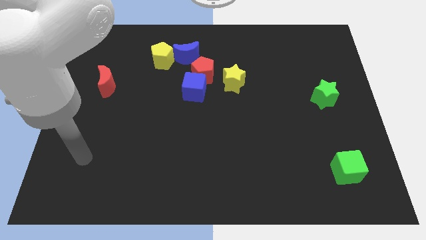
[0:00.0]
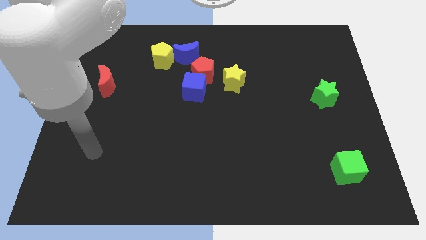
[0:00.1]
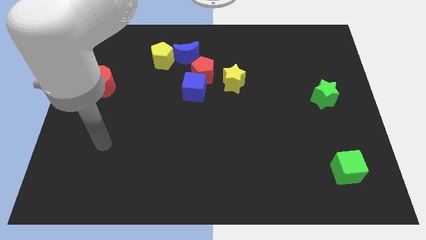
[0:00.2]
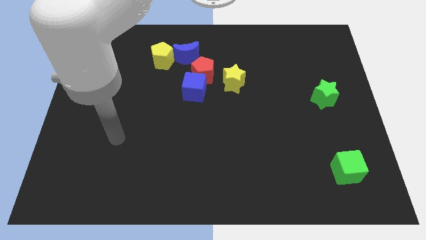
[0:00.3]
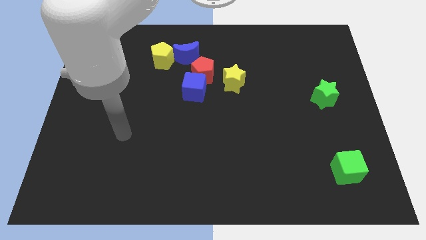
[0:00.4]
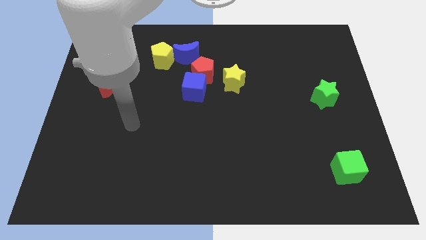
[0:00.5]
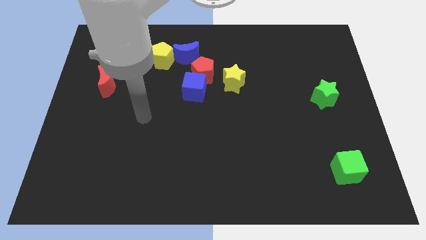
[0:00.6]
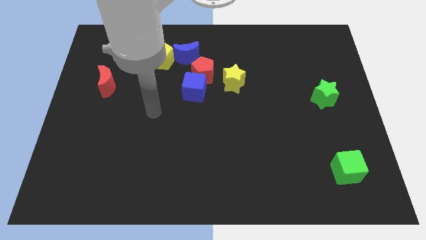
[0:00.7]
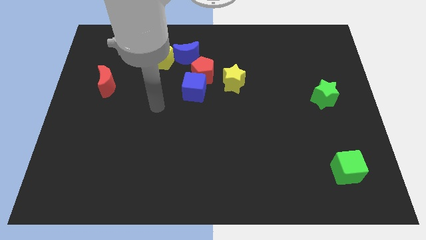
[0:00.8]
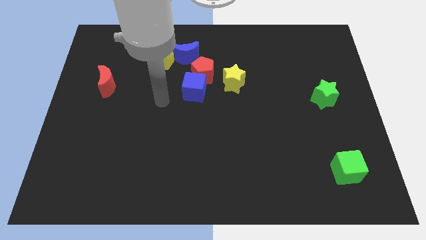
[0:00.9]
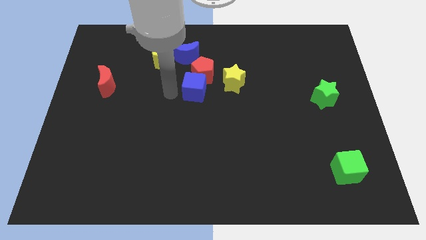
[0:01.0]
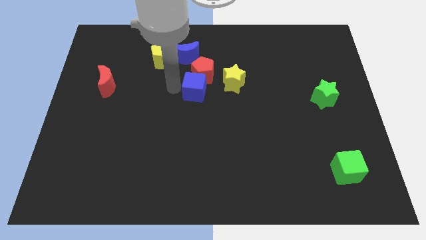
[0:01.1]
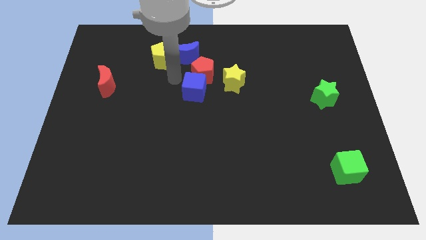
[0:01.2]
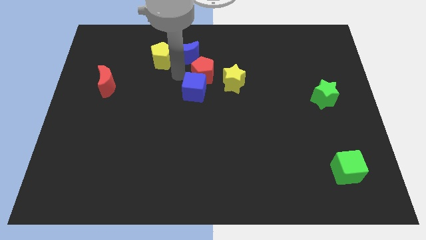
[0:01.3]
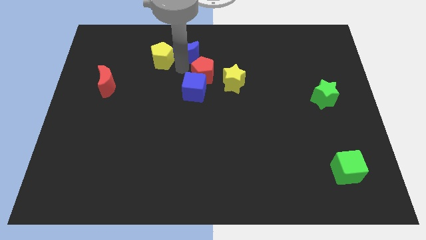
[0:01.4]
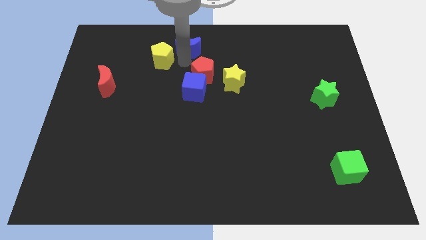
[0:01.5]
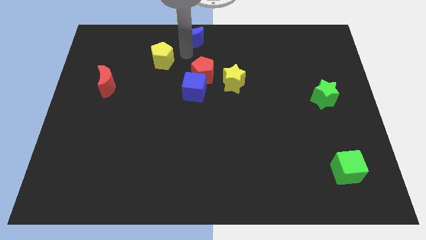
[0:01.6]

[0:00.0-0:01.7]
pull the yellow pentagon apart from the blue moon

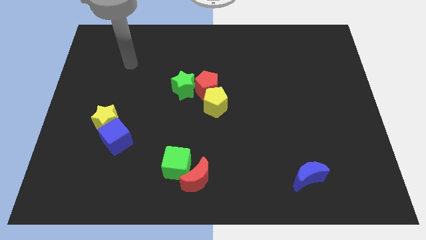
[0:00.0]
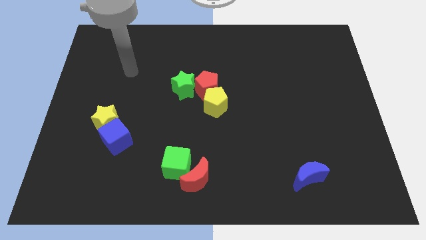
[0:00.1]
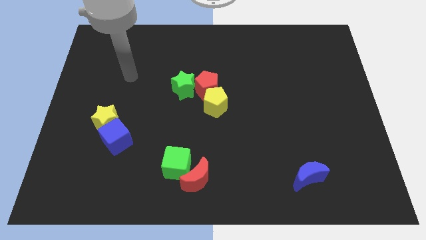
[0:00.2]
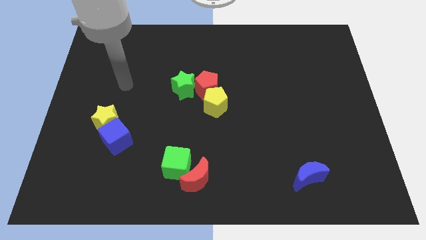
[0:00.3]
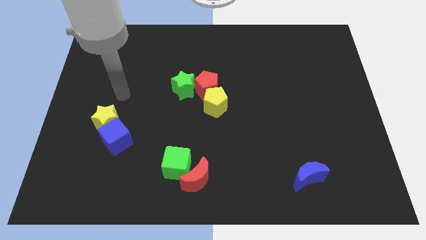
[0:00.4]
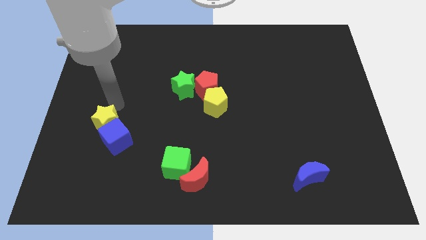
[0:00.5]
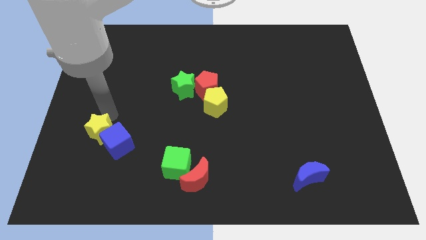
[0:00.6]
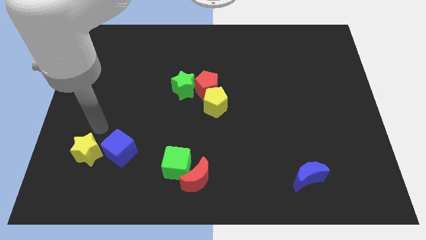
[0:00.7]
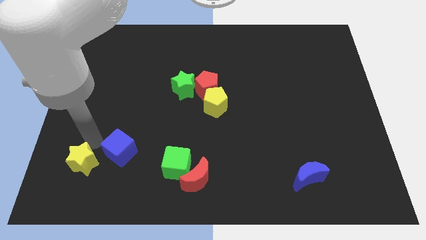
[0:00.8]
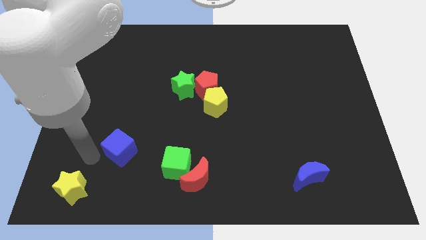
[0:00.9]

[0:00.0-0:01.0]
move the blue cube away from the yellow star

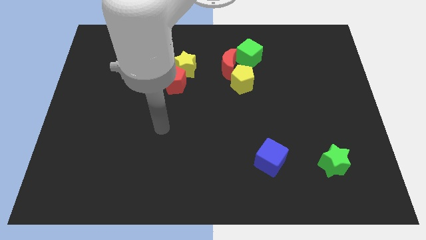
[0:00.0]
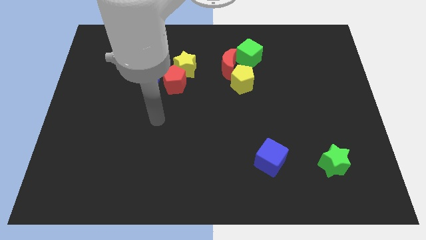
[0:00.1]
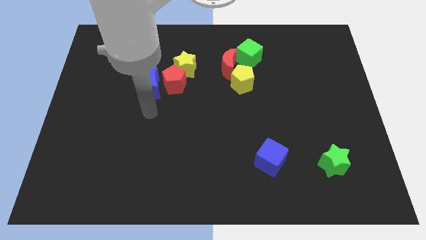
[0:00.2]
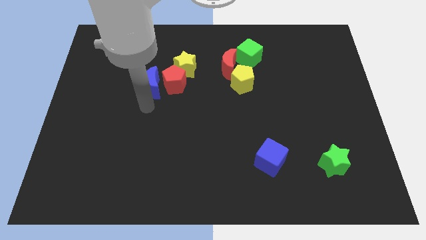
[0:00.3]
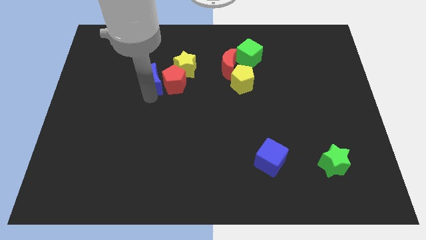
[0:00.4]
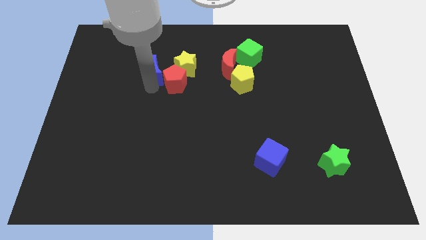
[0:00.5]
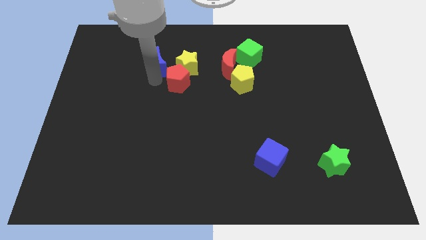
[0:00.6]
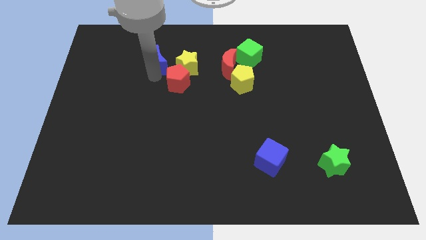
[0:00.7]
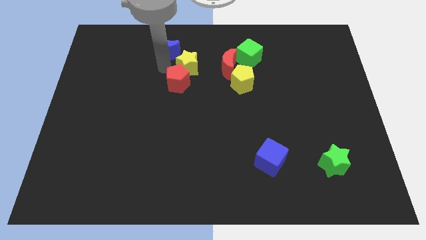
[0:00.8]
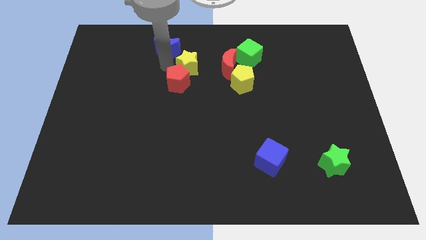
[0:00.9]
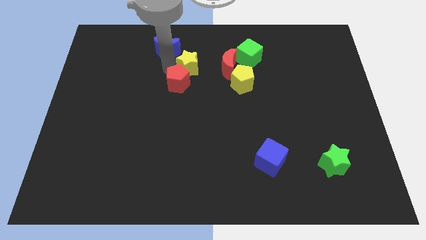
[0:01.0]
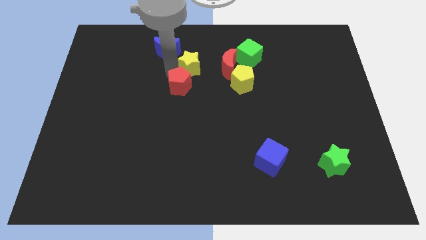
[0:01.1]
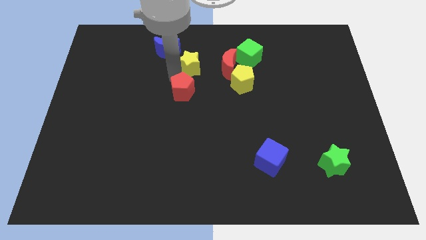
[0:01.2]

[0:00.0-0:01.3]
move the red pentagon away from the yellow star and blue moon

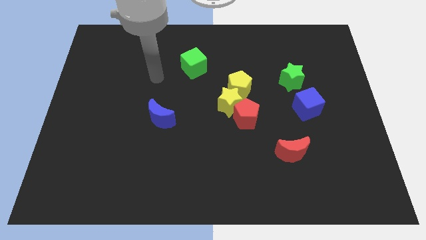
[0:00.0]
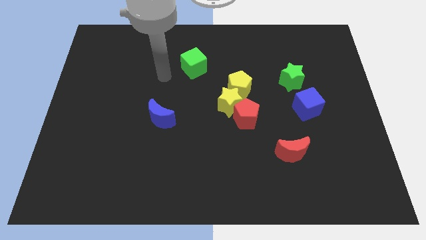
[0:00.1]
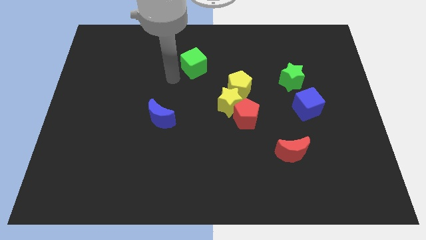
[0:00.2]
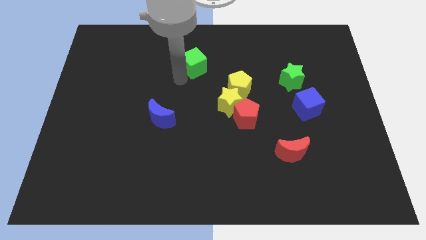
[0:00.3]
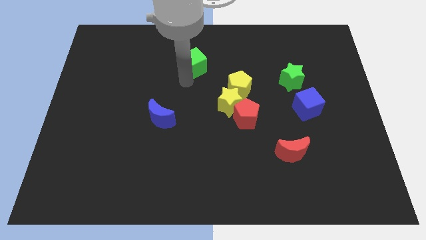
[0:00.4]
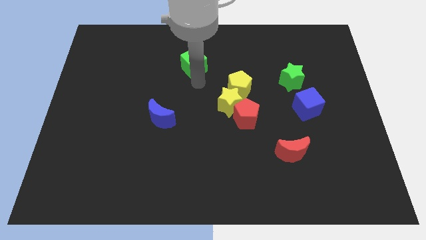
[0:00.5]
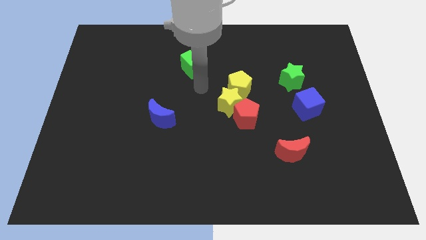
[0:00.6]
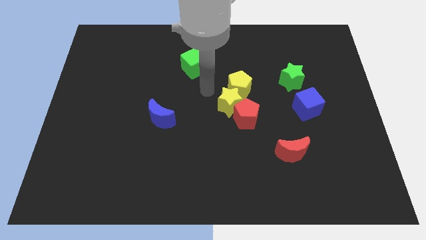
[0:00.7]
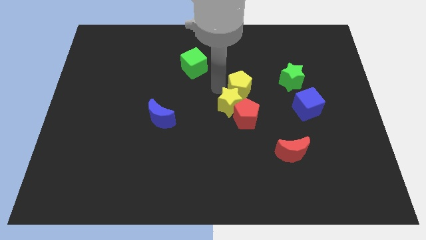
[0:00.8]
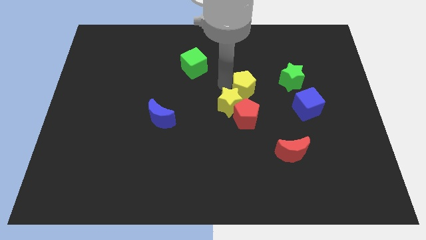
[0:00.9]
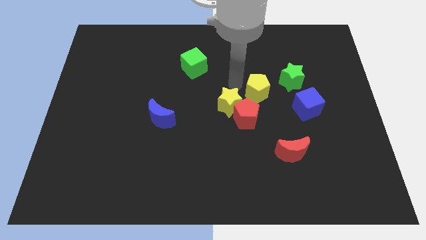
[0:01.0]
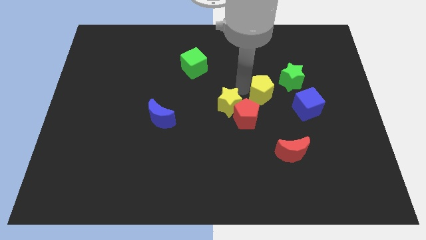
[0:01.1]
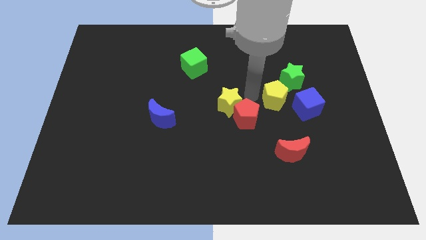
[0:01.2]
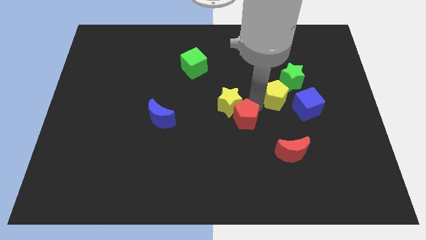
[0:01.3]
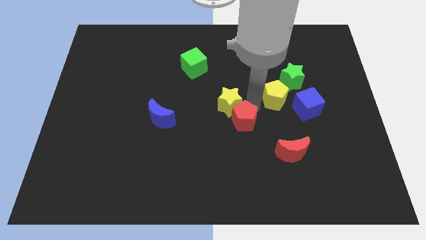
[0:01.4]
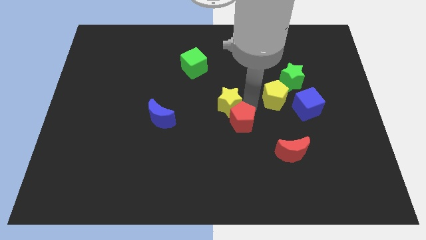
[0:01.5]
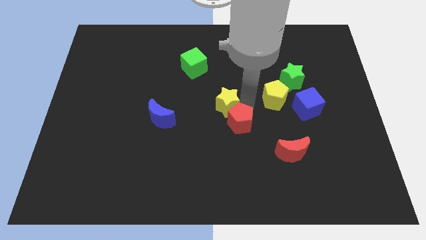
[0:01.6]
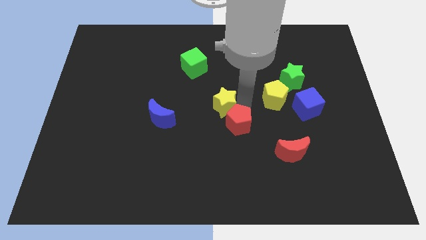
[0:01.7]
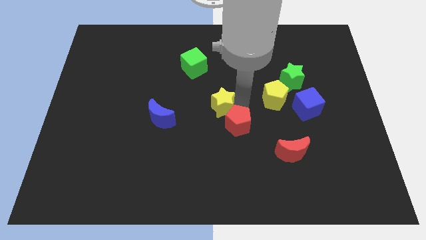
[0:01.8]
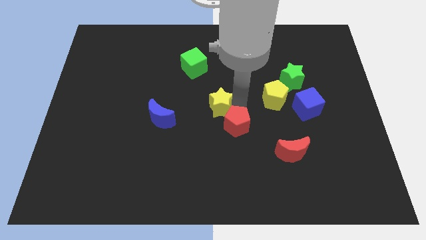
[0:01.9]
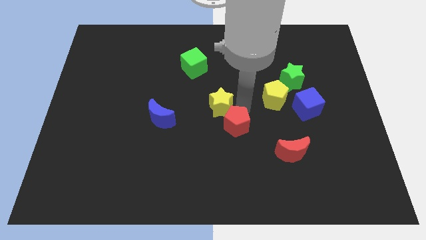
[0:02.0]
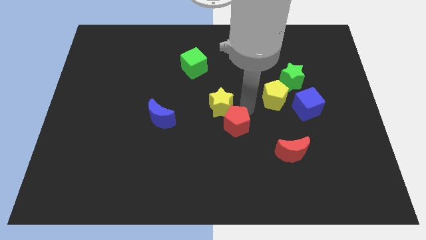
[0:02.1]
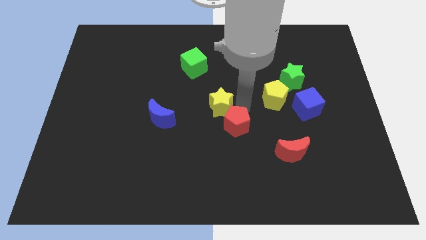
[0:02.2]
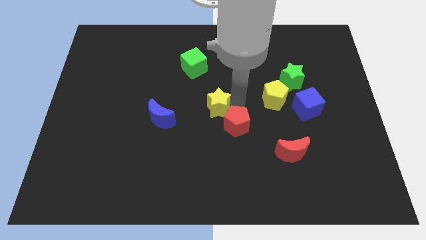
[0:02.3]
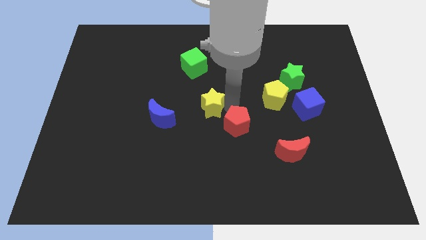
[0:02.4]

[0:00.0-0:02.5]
separate the yellow star from the red pentagon and yellow pentagon

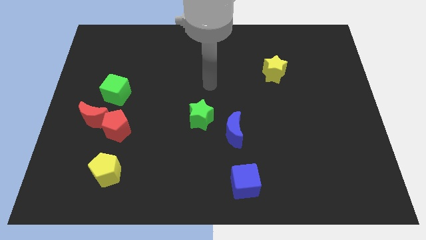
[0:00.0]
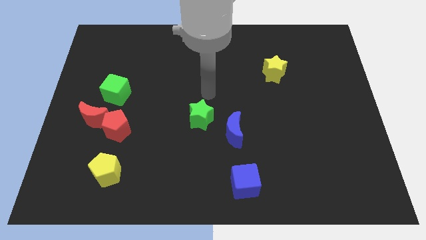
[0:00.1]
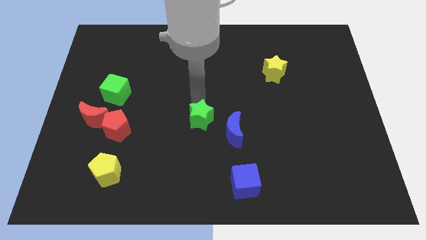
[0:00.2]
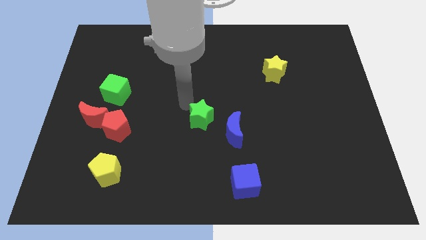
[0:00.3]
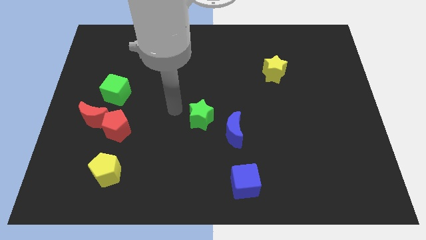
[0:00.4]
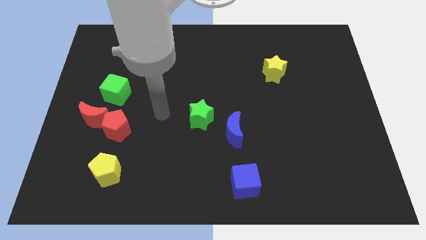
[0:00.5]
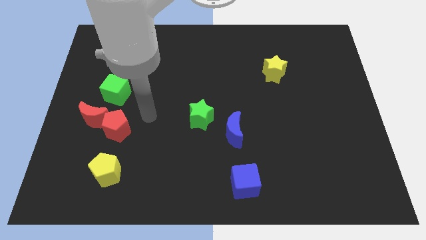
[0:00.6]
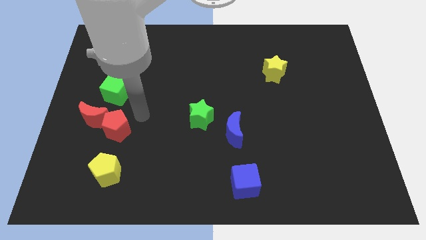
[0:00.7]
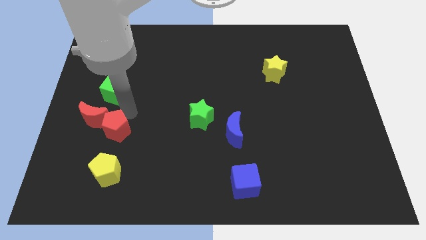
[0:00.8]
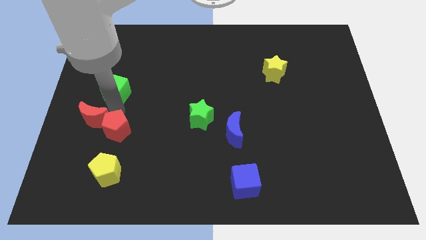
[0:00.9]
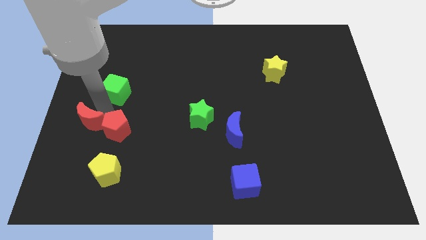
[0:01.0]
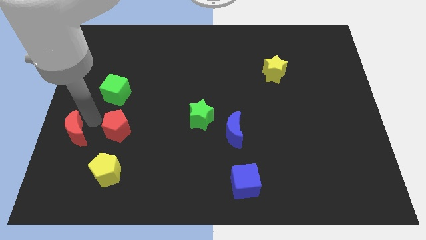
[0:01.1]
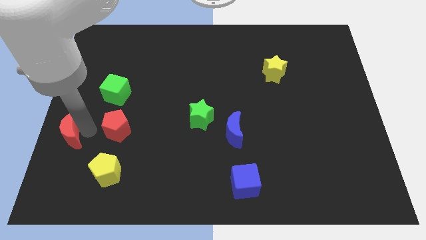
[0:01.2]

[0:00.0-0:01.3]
move the red pentagon away from the red moon

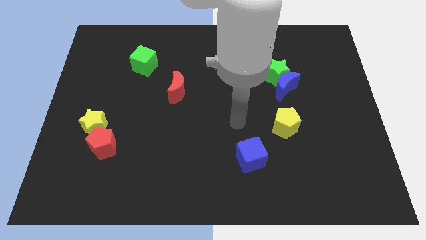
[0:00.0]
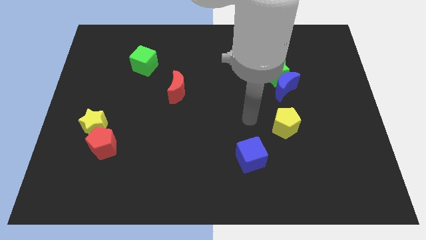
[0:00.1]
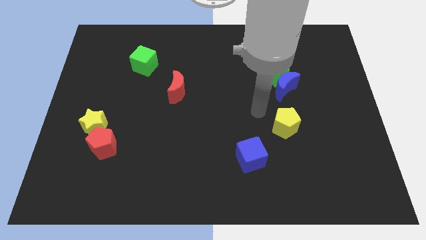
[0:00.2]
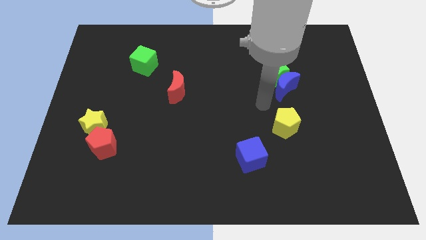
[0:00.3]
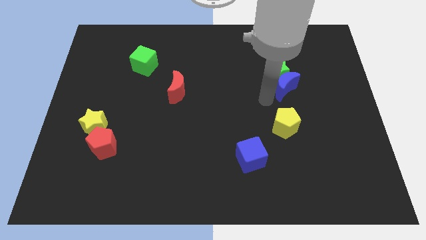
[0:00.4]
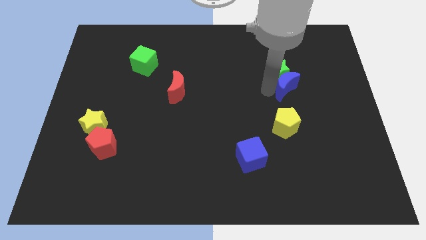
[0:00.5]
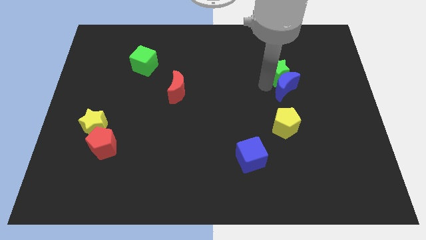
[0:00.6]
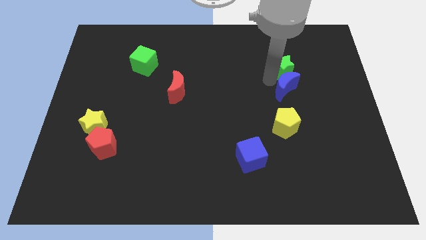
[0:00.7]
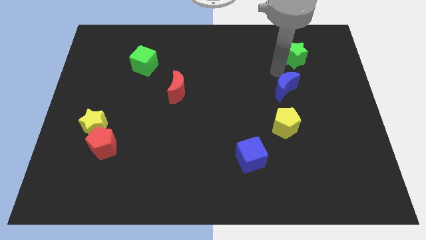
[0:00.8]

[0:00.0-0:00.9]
separate the blue moon from the green star

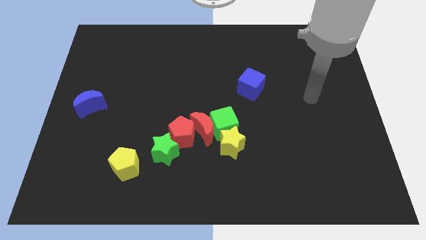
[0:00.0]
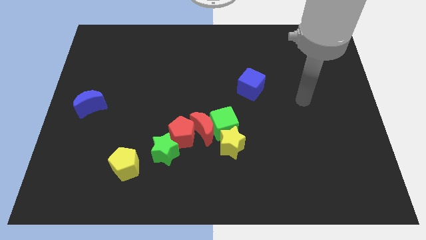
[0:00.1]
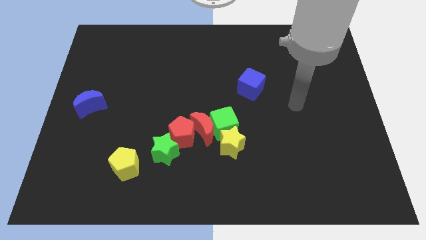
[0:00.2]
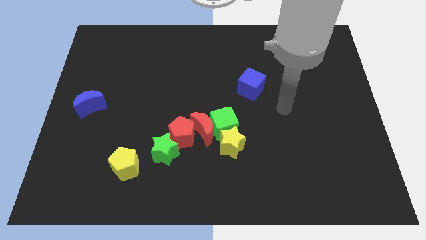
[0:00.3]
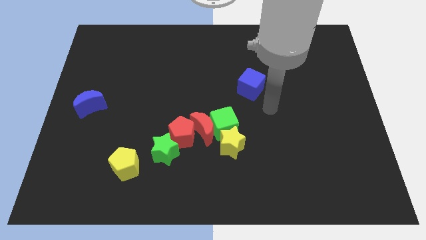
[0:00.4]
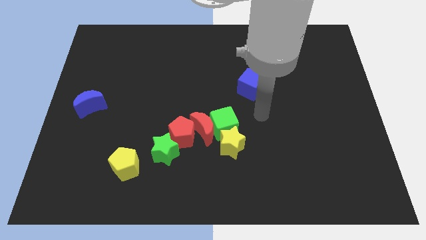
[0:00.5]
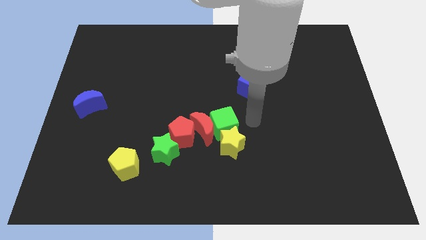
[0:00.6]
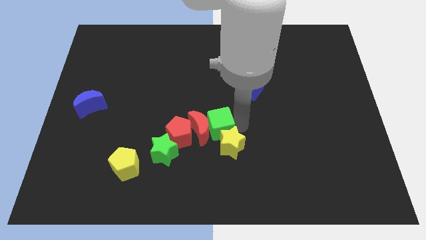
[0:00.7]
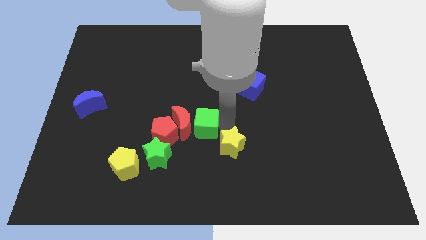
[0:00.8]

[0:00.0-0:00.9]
separate the yellow star from the green cube and red moon
